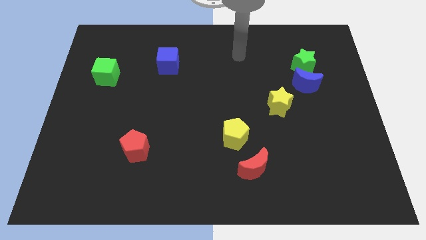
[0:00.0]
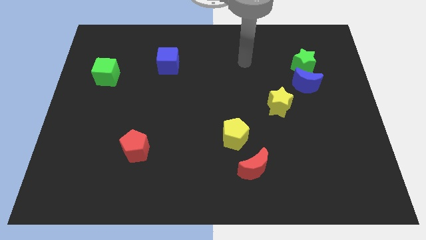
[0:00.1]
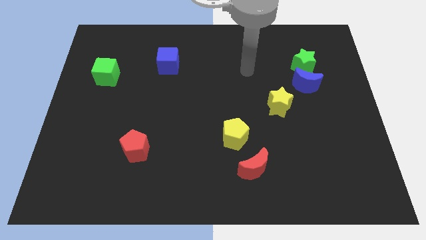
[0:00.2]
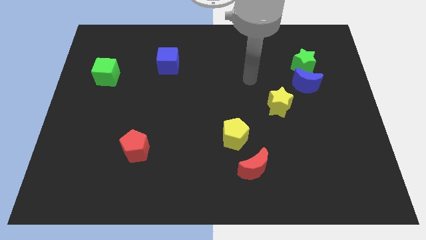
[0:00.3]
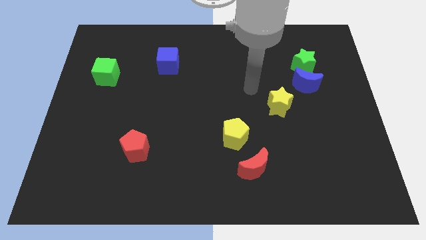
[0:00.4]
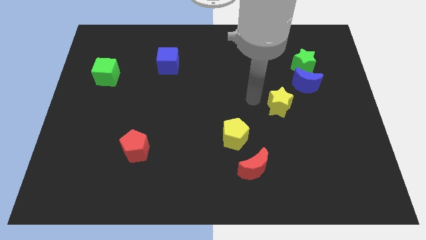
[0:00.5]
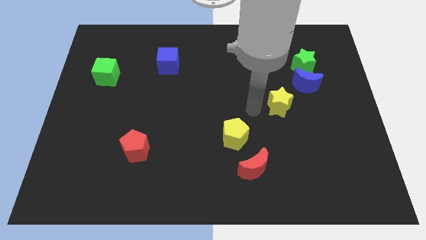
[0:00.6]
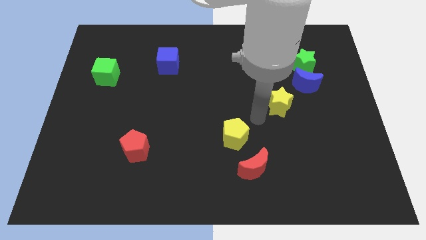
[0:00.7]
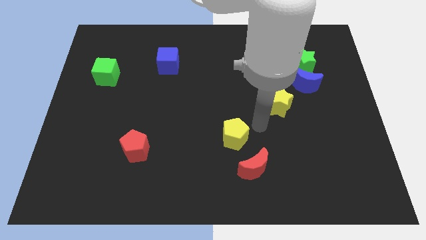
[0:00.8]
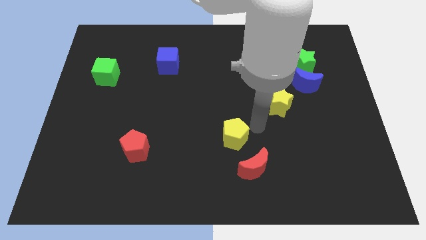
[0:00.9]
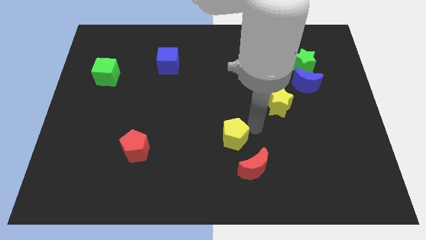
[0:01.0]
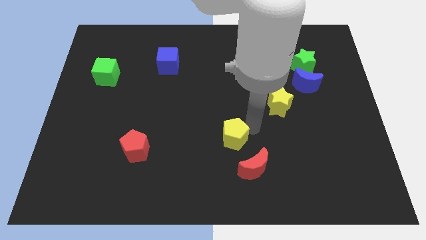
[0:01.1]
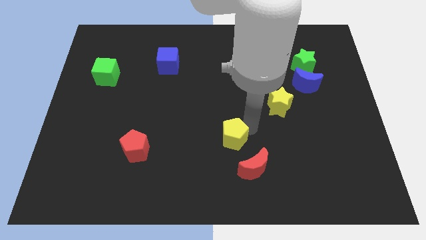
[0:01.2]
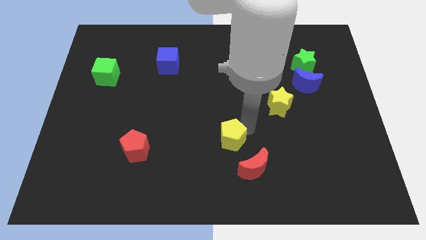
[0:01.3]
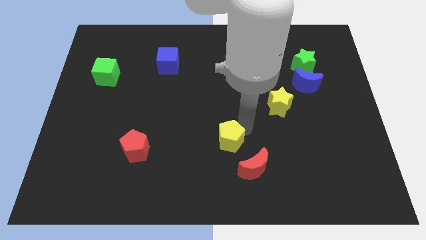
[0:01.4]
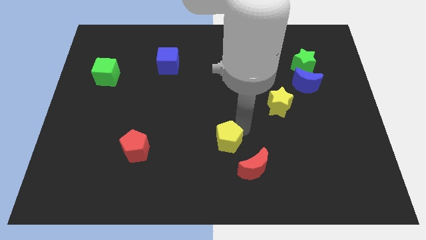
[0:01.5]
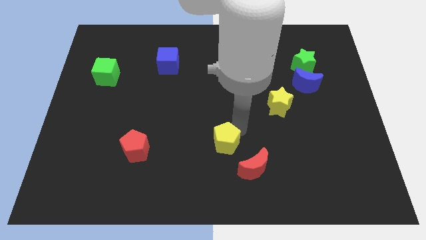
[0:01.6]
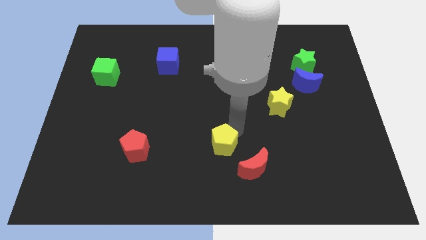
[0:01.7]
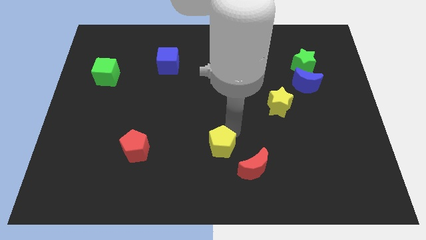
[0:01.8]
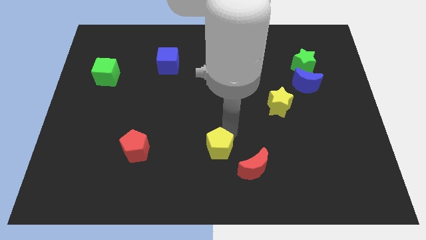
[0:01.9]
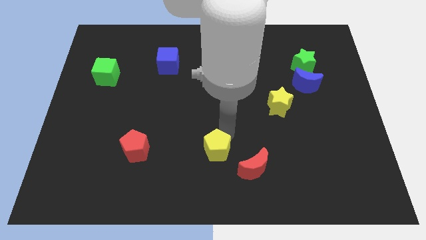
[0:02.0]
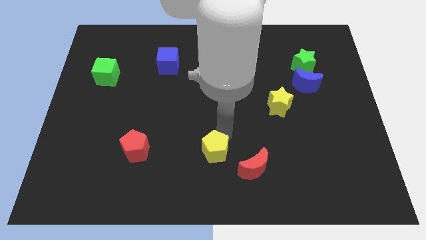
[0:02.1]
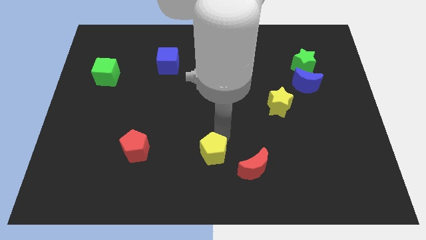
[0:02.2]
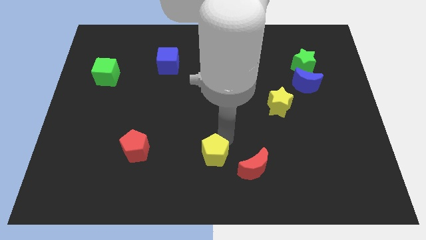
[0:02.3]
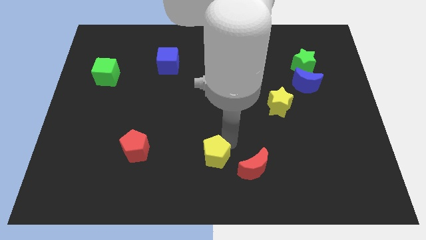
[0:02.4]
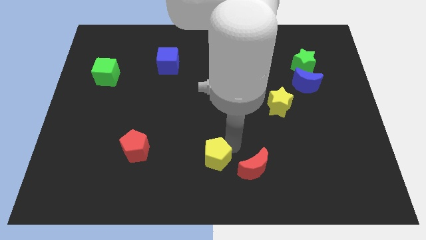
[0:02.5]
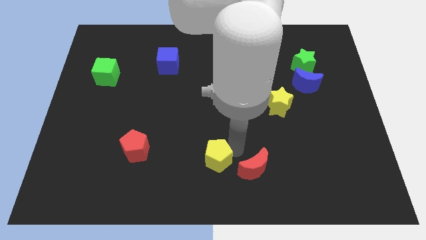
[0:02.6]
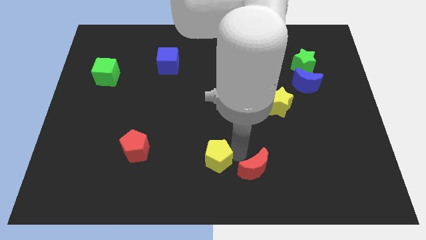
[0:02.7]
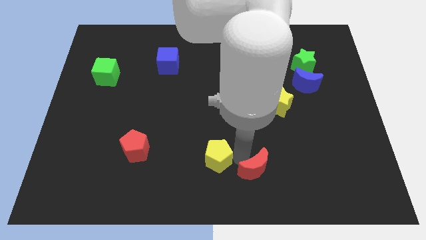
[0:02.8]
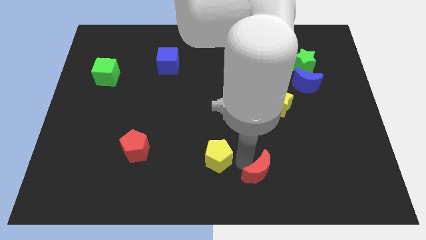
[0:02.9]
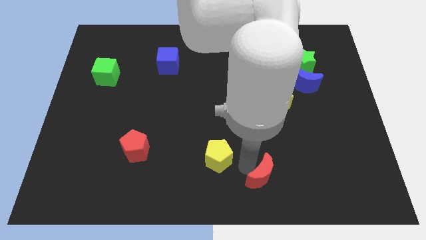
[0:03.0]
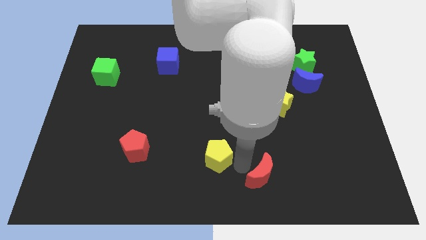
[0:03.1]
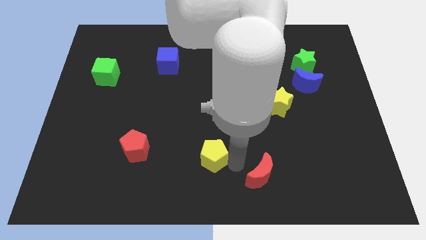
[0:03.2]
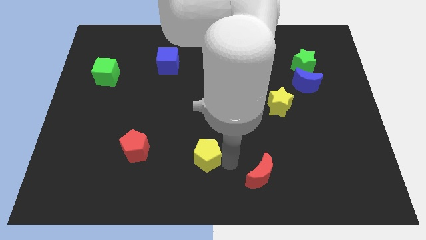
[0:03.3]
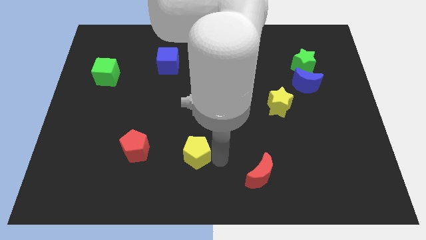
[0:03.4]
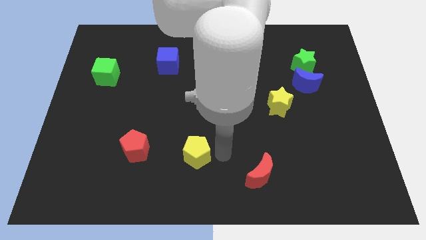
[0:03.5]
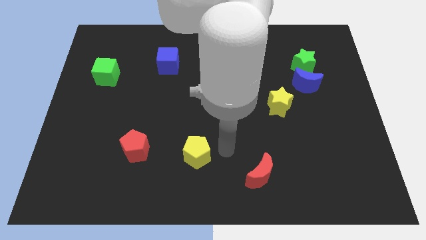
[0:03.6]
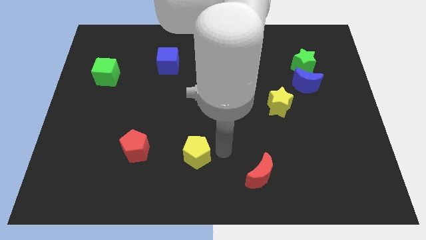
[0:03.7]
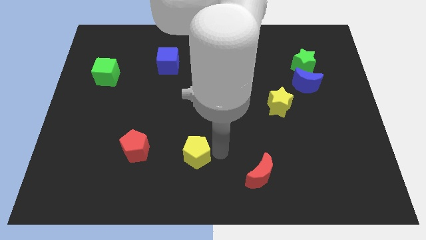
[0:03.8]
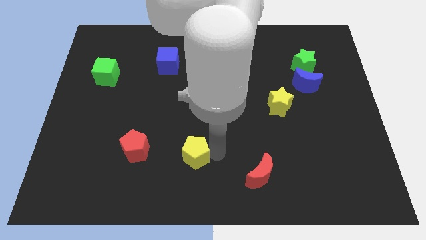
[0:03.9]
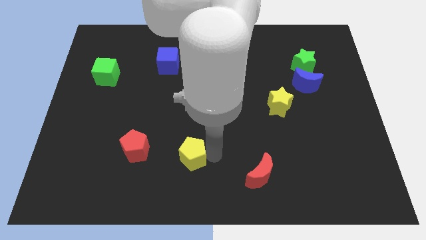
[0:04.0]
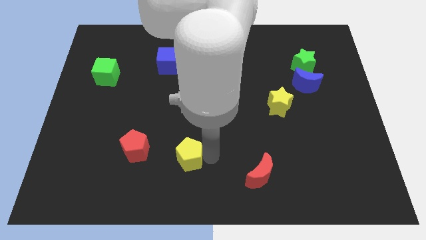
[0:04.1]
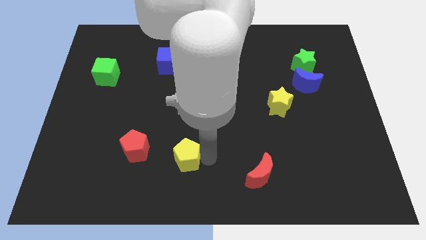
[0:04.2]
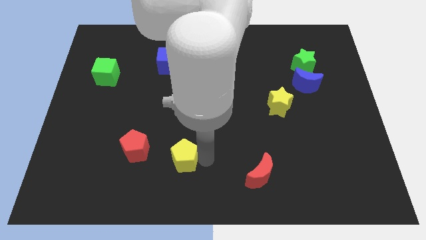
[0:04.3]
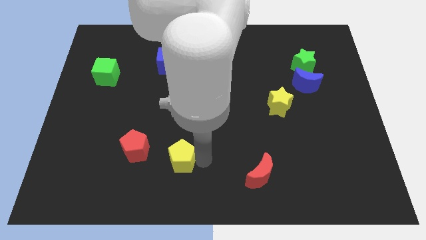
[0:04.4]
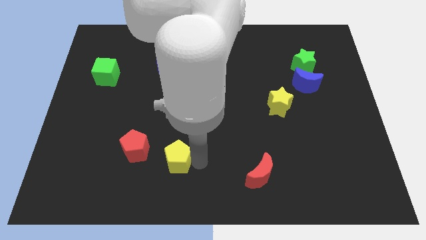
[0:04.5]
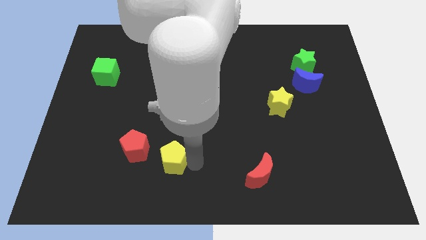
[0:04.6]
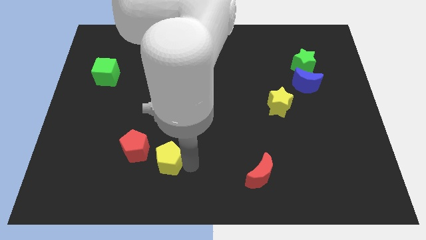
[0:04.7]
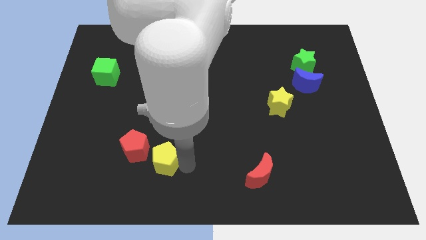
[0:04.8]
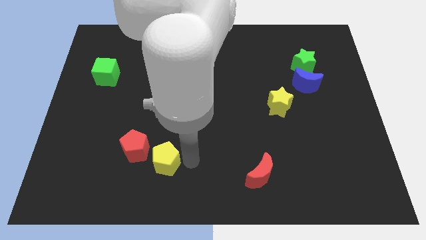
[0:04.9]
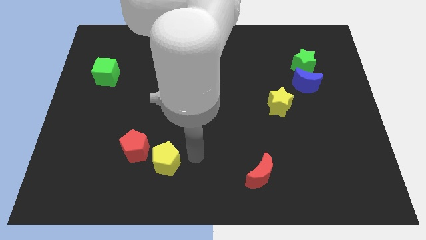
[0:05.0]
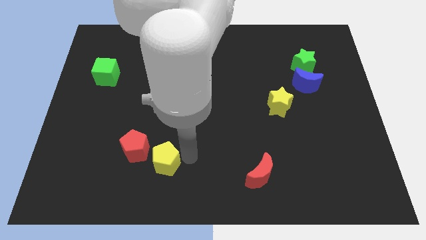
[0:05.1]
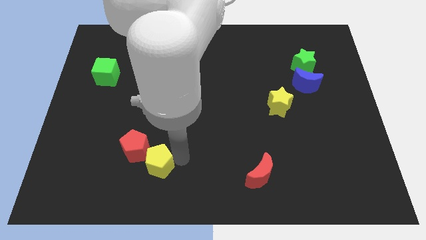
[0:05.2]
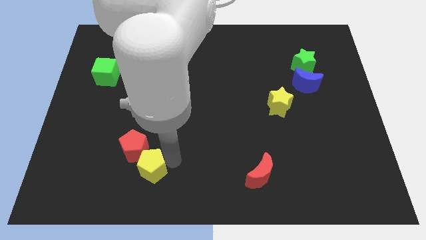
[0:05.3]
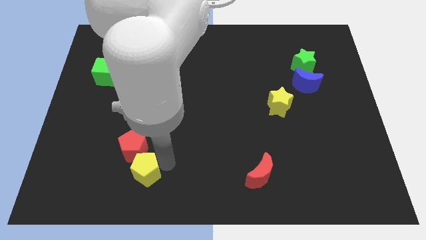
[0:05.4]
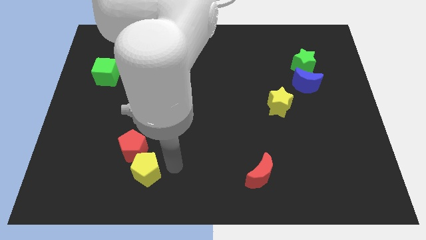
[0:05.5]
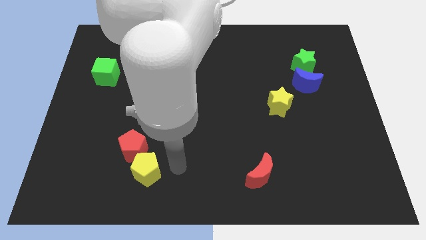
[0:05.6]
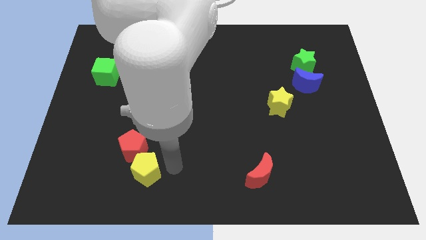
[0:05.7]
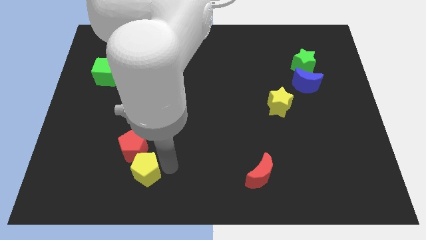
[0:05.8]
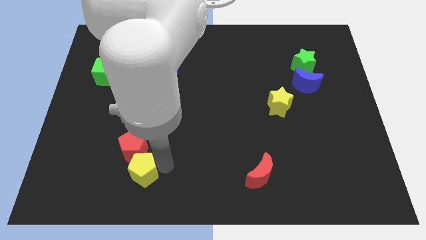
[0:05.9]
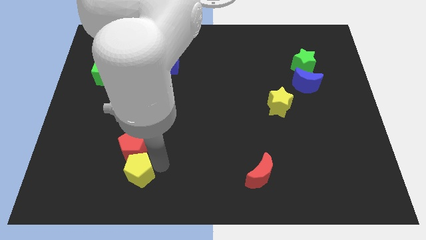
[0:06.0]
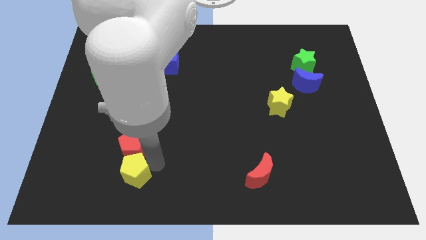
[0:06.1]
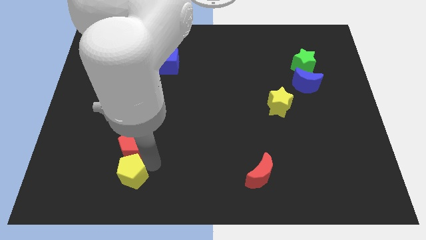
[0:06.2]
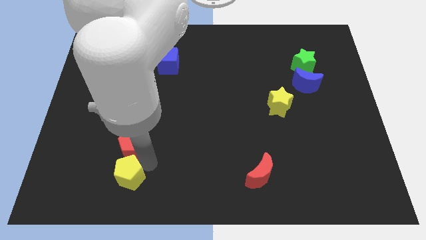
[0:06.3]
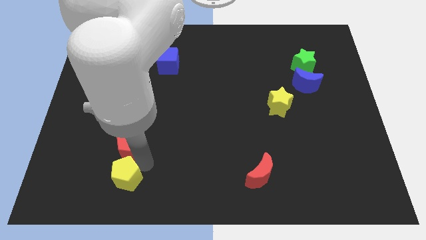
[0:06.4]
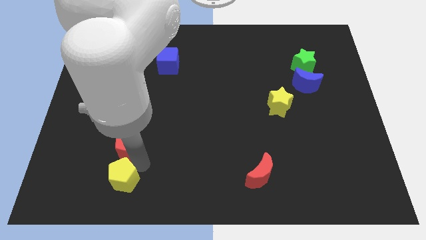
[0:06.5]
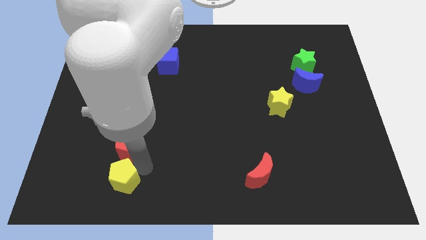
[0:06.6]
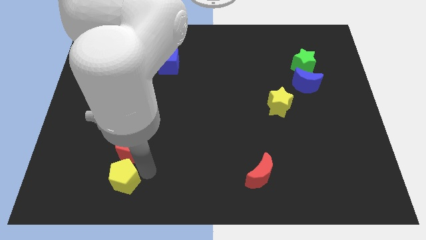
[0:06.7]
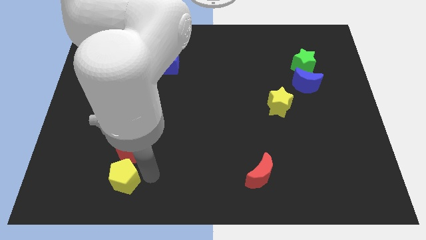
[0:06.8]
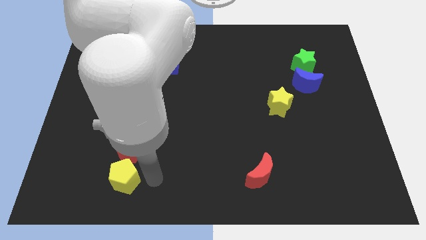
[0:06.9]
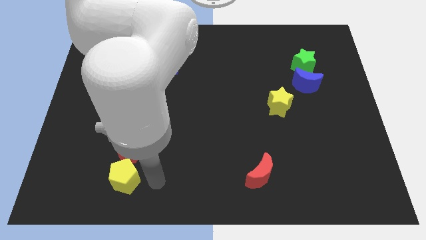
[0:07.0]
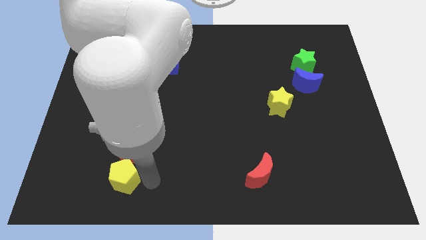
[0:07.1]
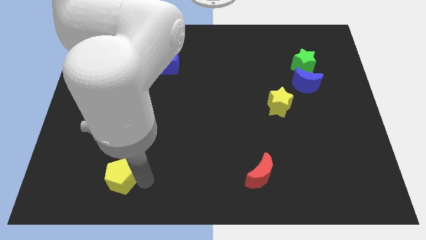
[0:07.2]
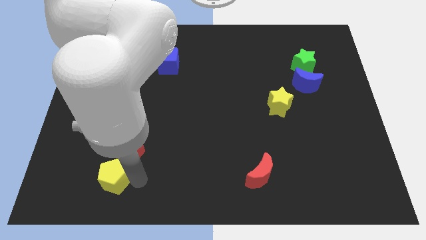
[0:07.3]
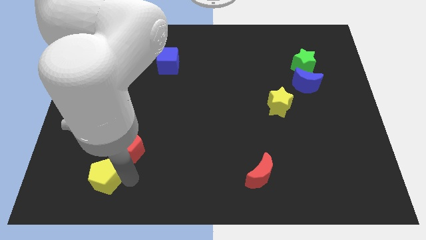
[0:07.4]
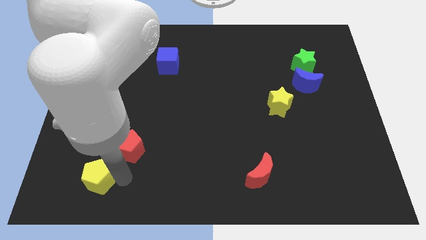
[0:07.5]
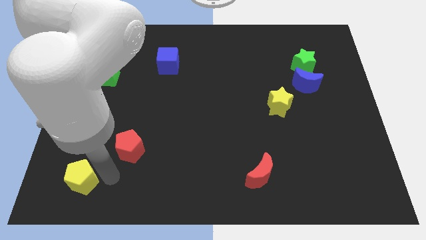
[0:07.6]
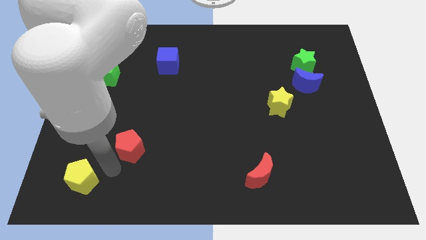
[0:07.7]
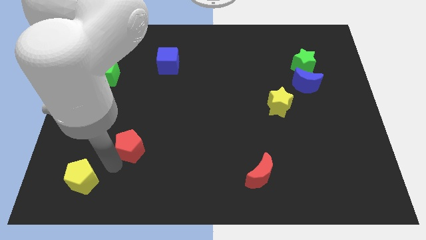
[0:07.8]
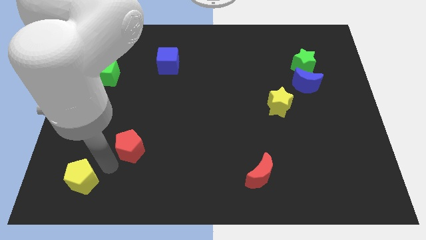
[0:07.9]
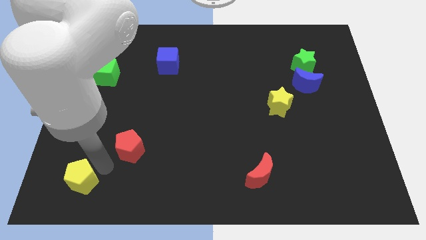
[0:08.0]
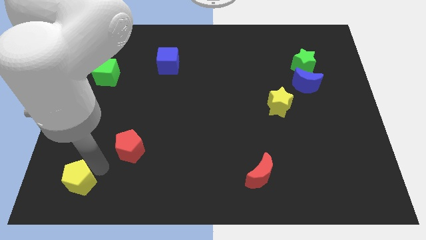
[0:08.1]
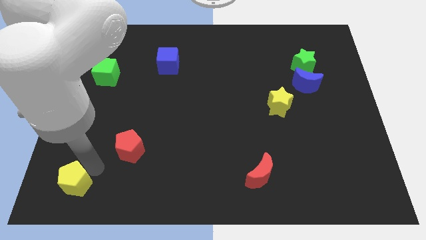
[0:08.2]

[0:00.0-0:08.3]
push the yellow pentagon to the lower left corner
